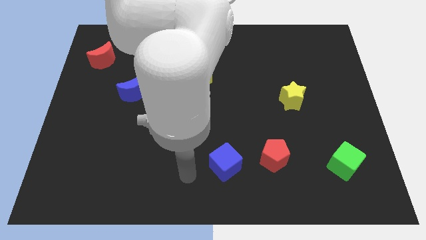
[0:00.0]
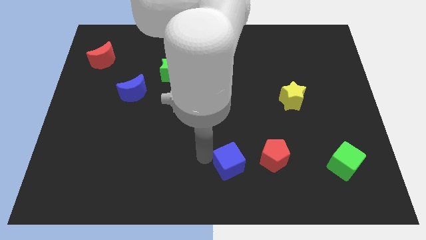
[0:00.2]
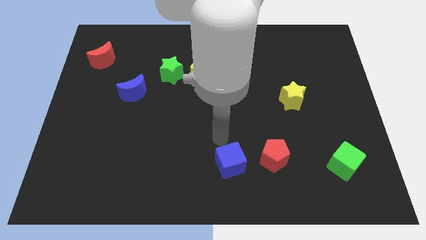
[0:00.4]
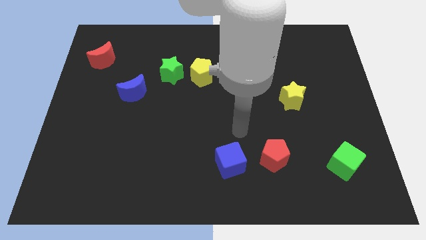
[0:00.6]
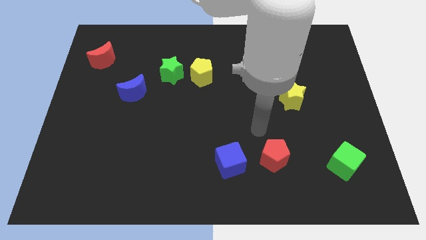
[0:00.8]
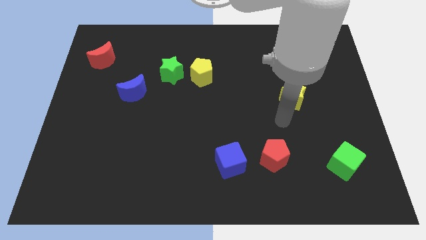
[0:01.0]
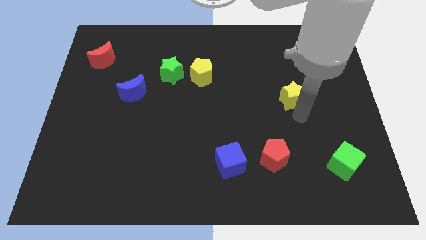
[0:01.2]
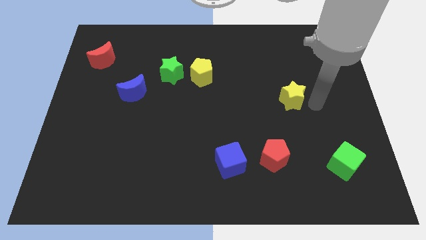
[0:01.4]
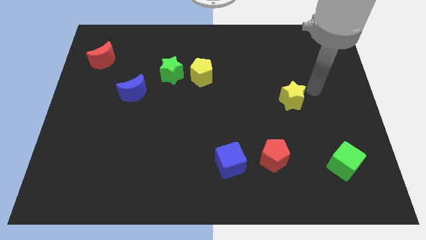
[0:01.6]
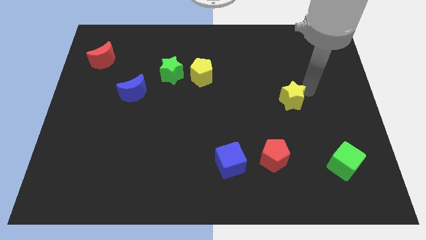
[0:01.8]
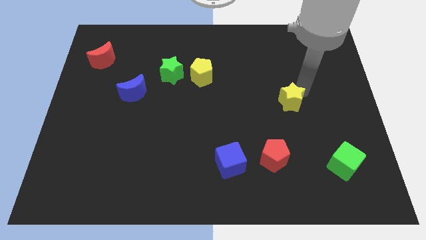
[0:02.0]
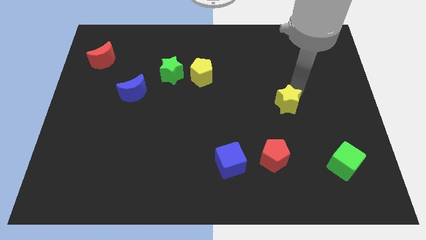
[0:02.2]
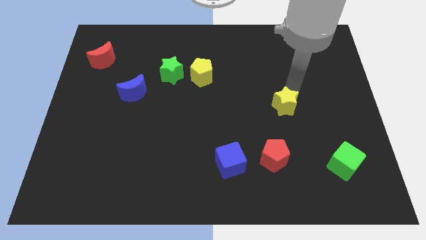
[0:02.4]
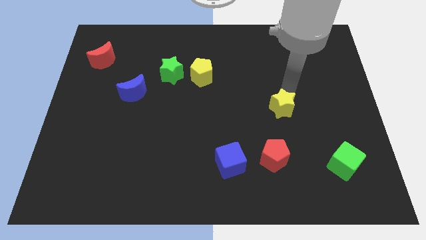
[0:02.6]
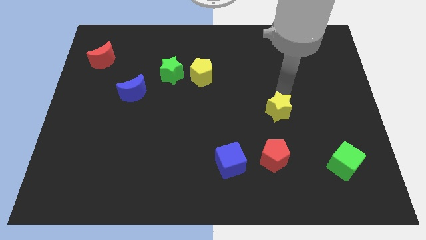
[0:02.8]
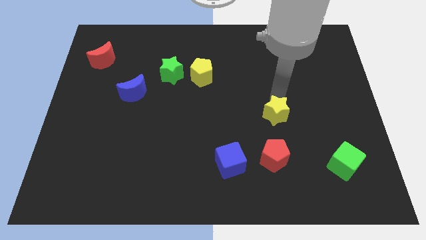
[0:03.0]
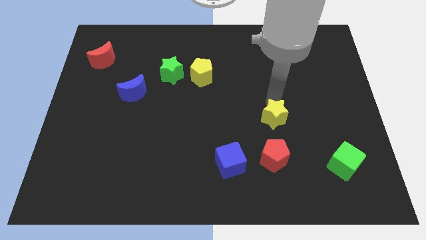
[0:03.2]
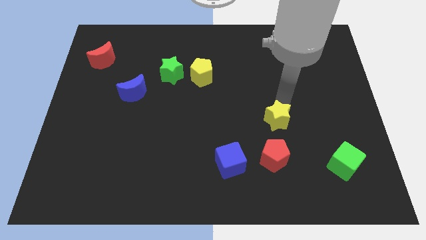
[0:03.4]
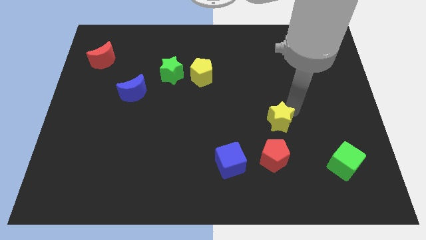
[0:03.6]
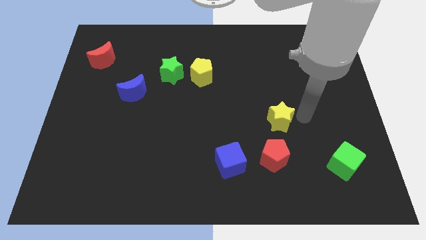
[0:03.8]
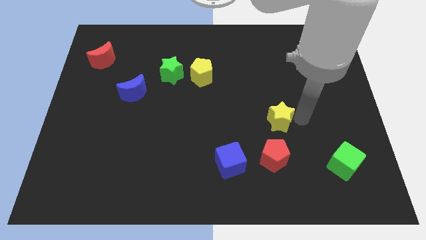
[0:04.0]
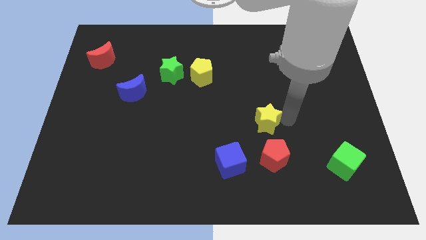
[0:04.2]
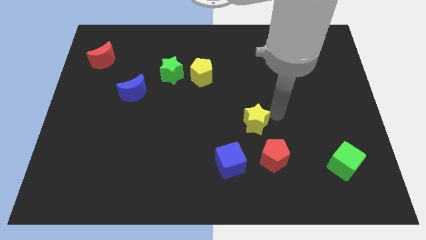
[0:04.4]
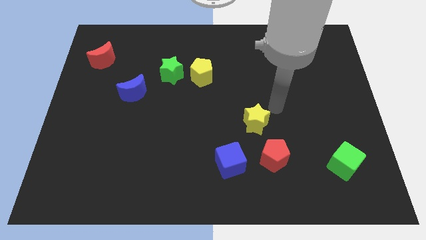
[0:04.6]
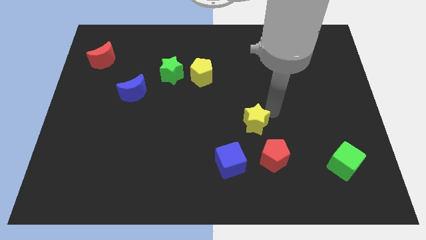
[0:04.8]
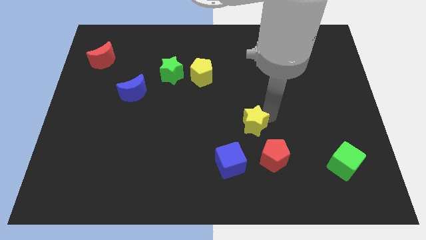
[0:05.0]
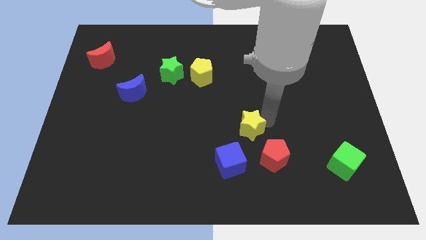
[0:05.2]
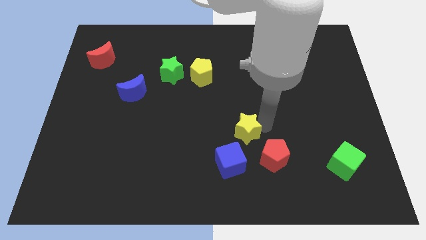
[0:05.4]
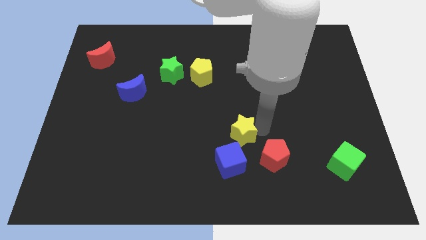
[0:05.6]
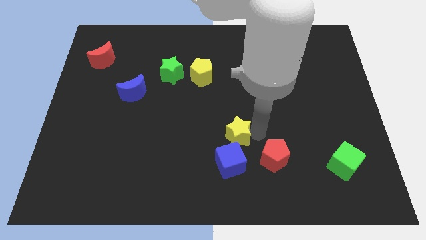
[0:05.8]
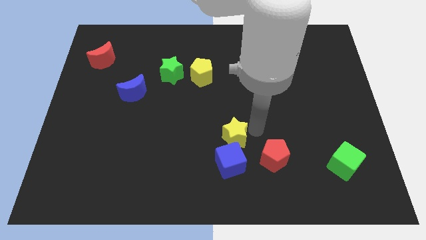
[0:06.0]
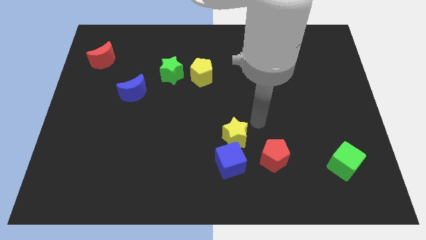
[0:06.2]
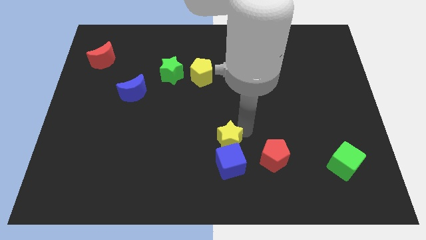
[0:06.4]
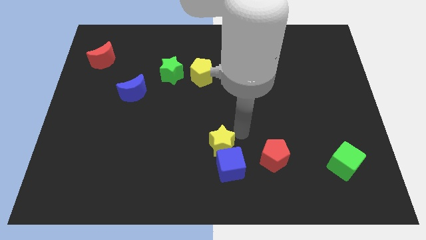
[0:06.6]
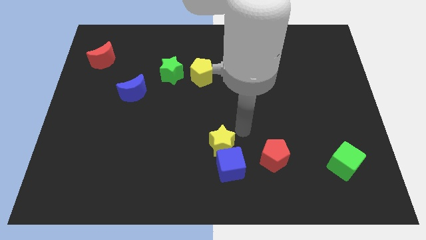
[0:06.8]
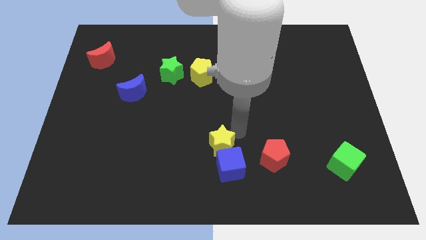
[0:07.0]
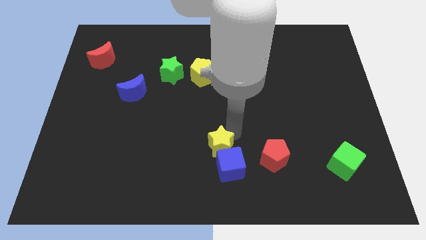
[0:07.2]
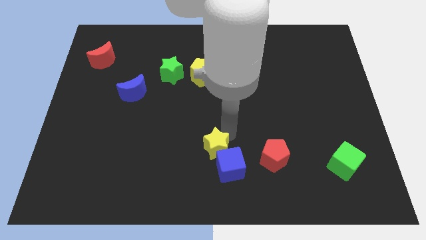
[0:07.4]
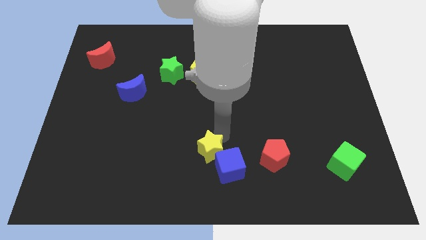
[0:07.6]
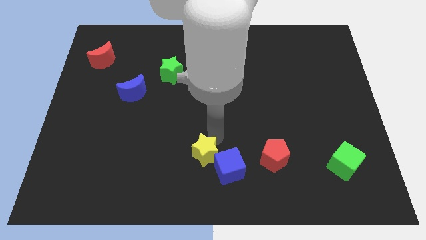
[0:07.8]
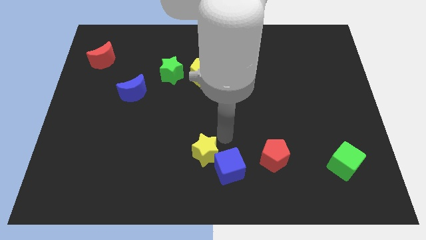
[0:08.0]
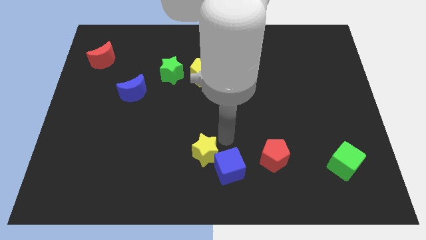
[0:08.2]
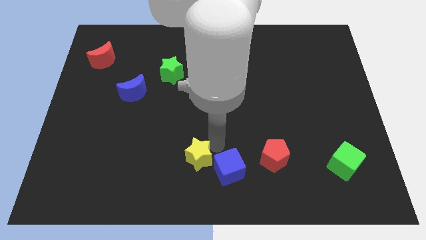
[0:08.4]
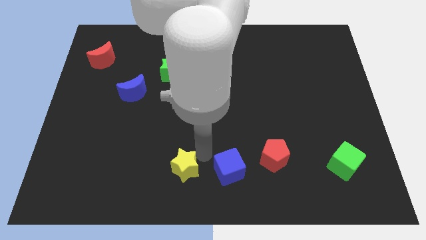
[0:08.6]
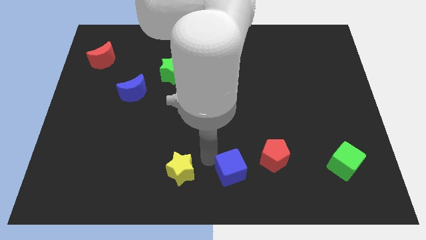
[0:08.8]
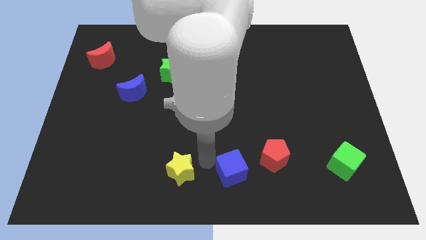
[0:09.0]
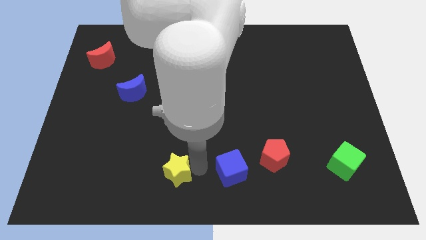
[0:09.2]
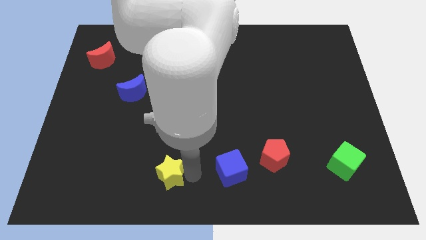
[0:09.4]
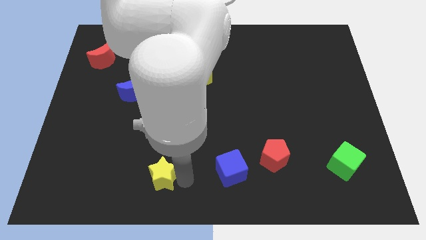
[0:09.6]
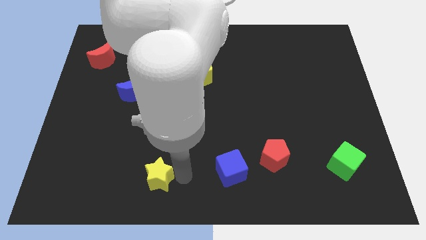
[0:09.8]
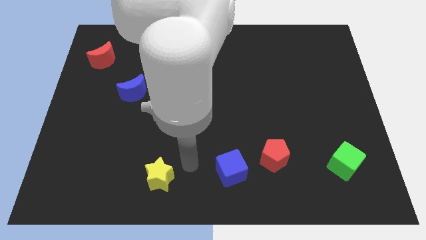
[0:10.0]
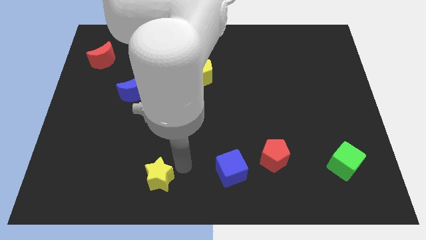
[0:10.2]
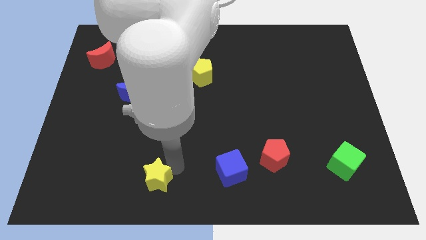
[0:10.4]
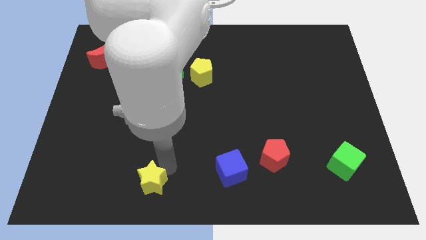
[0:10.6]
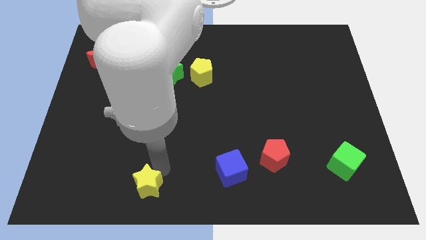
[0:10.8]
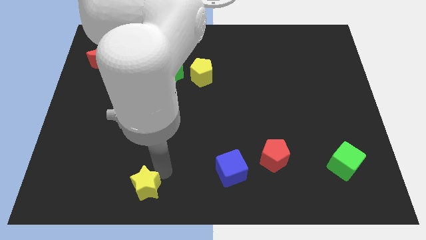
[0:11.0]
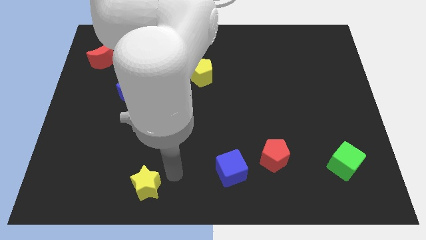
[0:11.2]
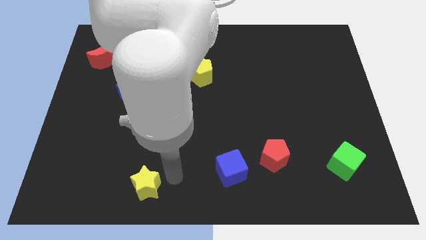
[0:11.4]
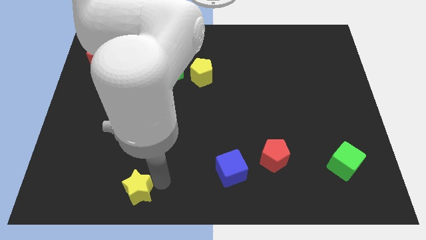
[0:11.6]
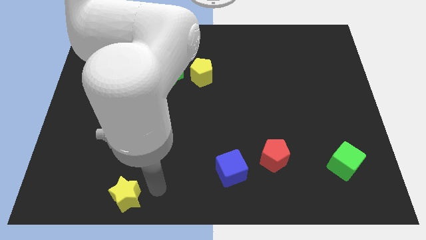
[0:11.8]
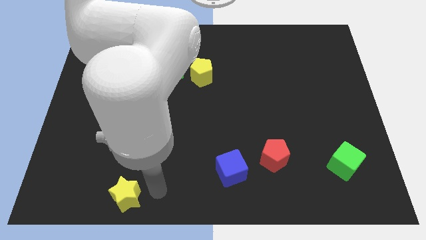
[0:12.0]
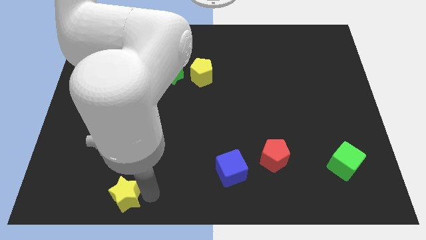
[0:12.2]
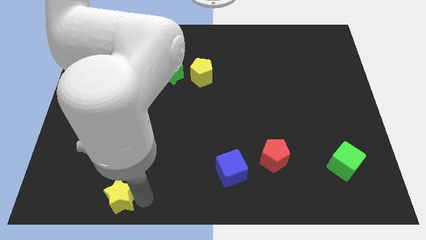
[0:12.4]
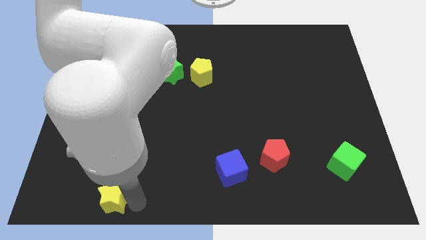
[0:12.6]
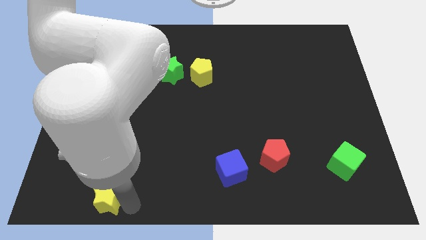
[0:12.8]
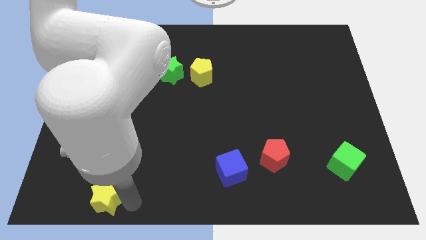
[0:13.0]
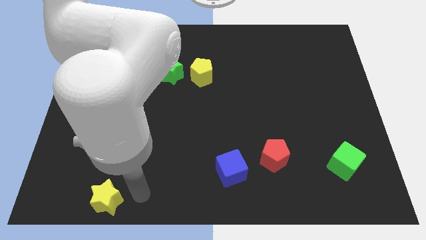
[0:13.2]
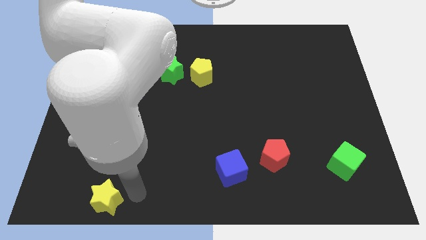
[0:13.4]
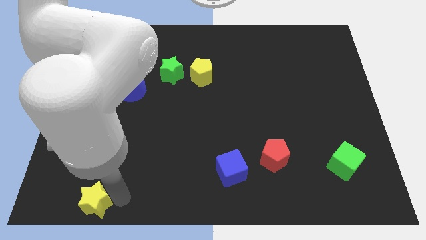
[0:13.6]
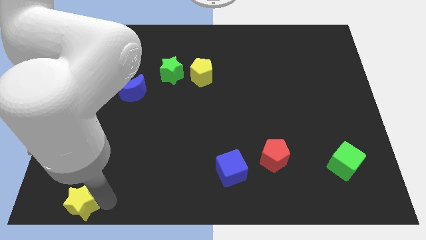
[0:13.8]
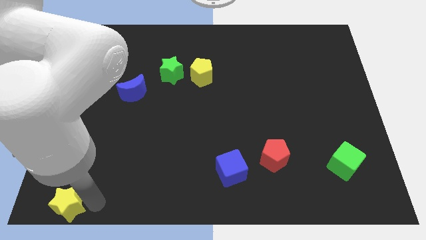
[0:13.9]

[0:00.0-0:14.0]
move the yellow star to the bottom left of the board

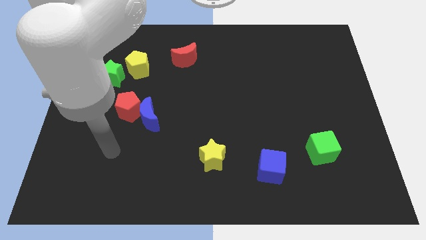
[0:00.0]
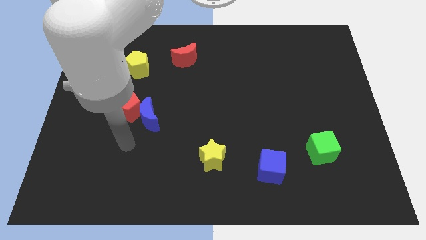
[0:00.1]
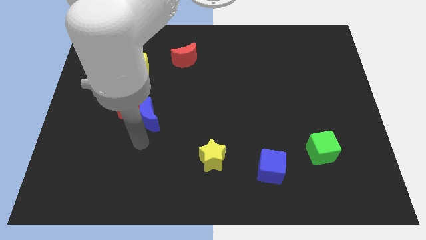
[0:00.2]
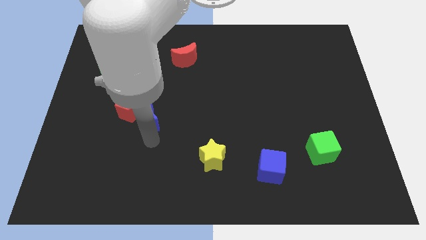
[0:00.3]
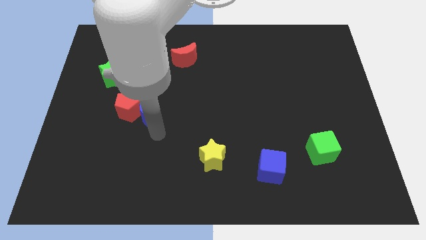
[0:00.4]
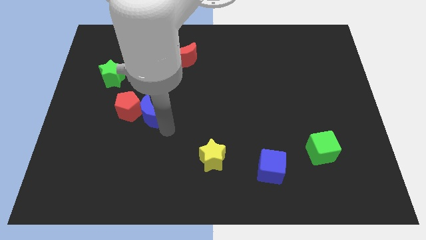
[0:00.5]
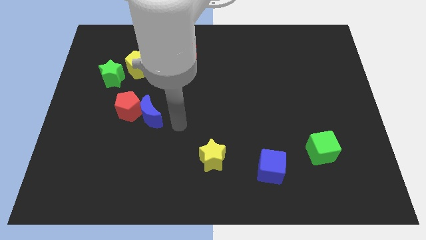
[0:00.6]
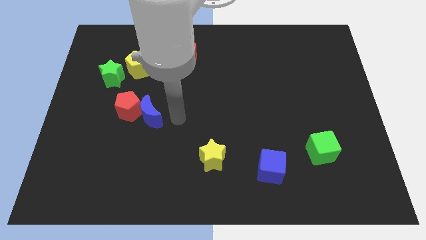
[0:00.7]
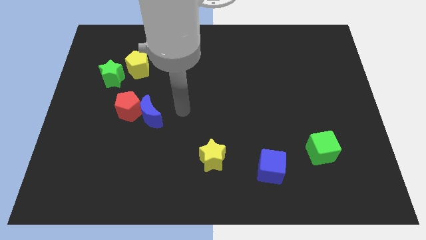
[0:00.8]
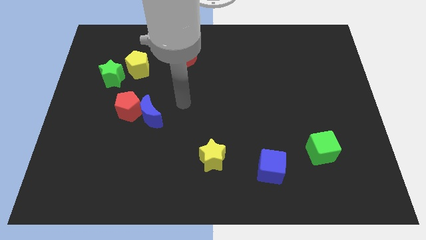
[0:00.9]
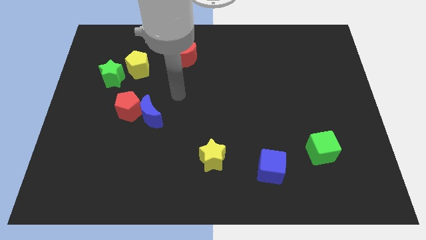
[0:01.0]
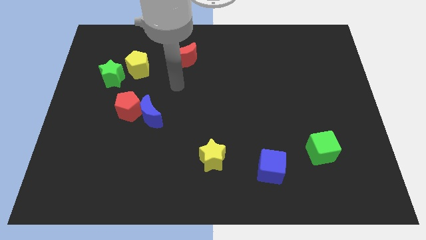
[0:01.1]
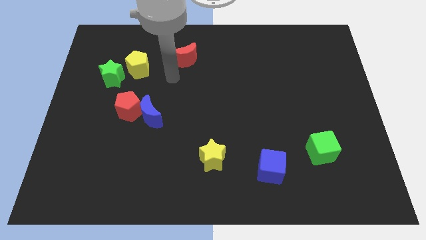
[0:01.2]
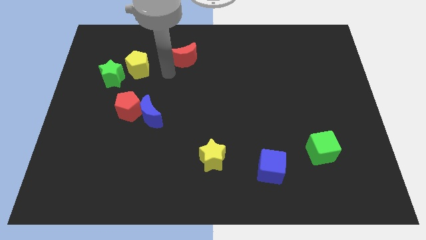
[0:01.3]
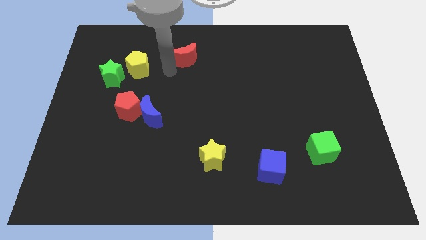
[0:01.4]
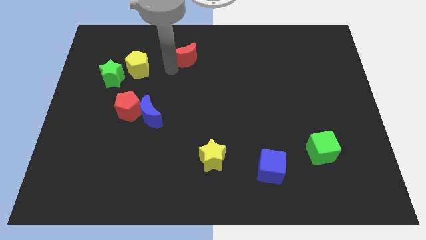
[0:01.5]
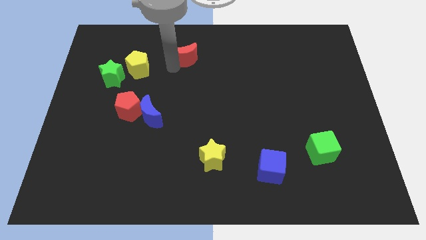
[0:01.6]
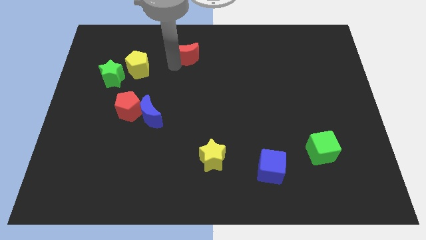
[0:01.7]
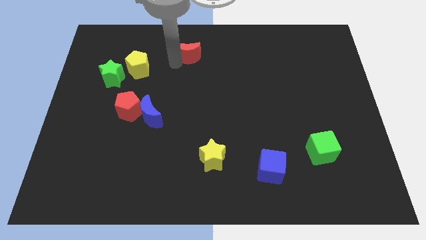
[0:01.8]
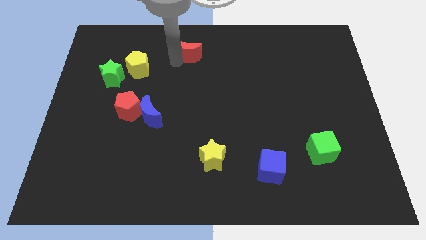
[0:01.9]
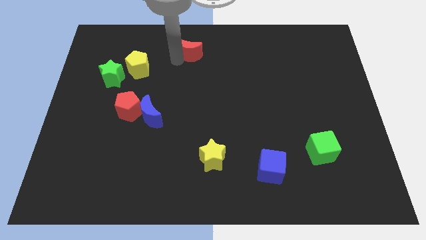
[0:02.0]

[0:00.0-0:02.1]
move the red moon to the top
